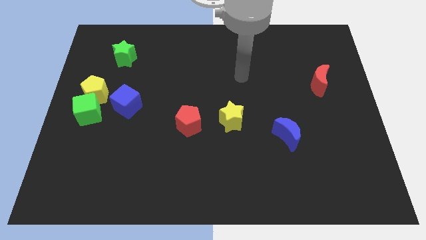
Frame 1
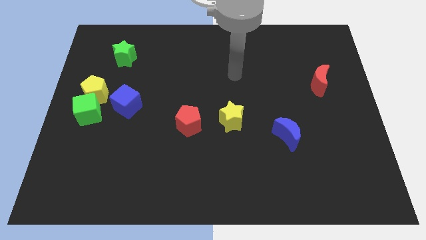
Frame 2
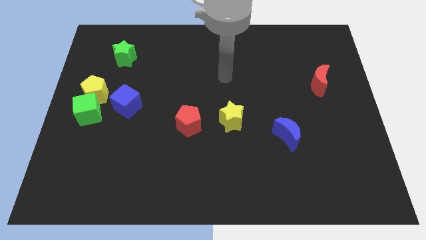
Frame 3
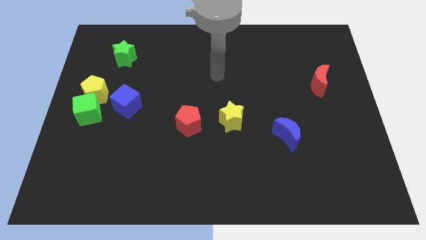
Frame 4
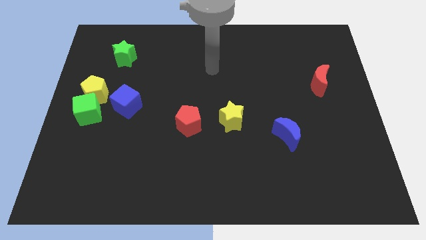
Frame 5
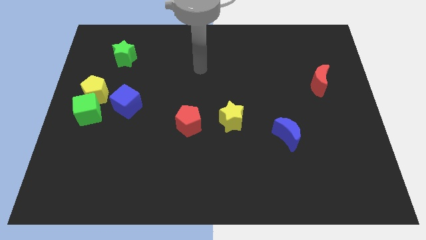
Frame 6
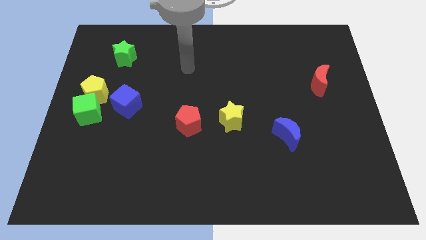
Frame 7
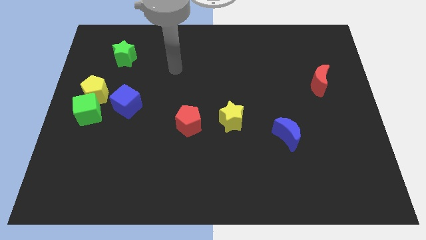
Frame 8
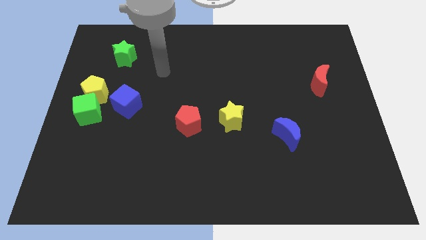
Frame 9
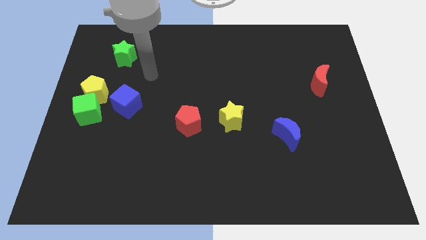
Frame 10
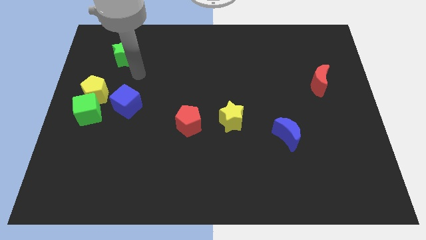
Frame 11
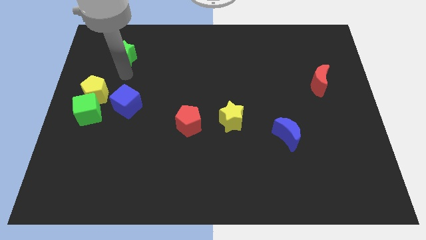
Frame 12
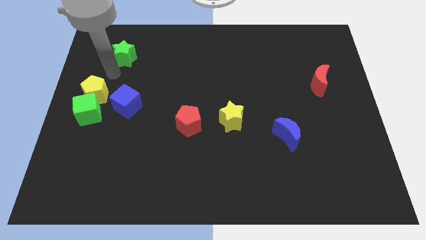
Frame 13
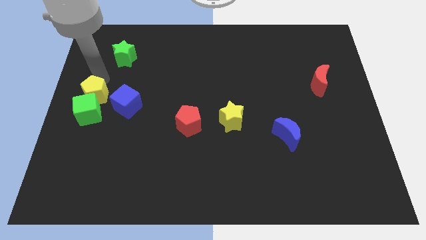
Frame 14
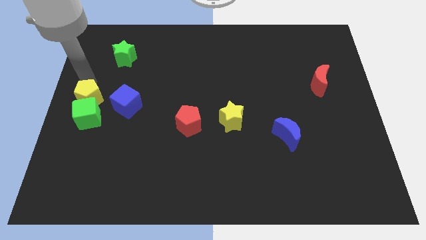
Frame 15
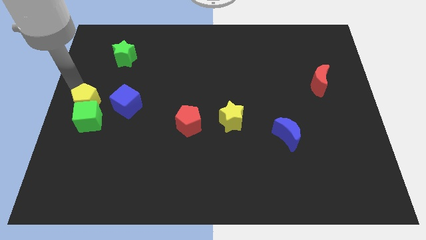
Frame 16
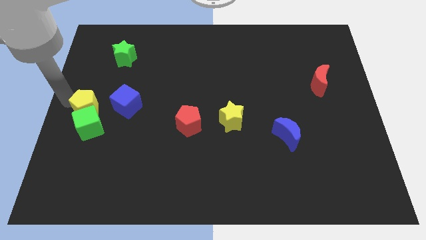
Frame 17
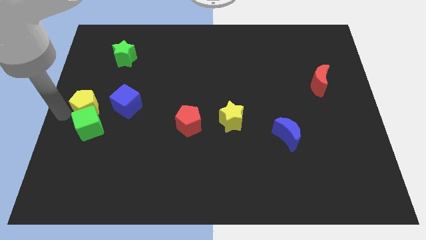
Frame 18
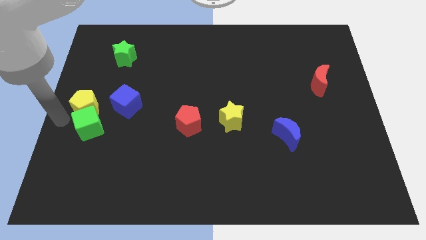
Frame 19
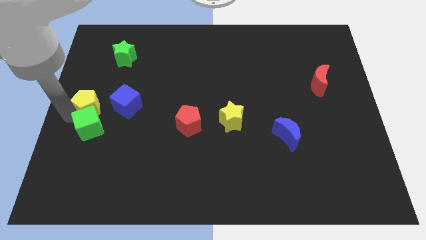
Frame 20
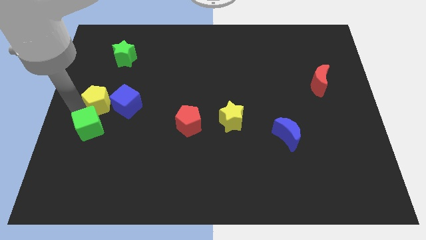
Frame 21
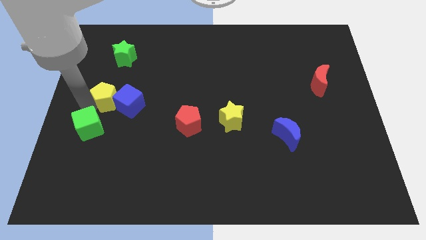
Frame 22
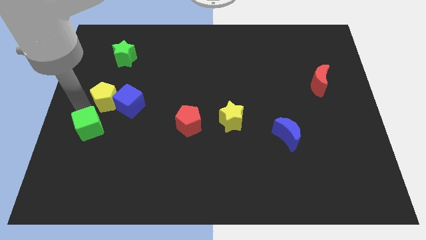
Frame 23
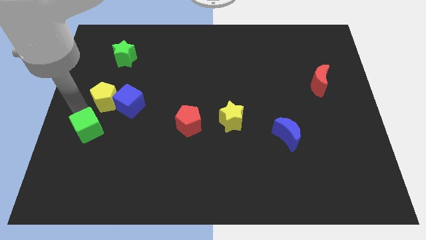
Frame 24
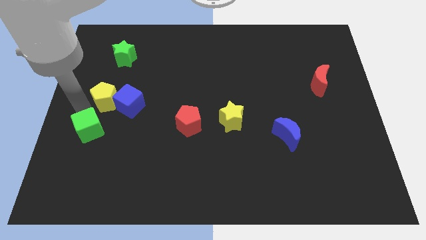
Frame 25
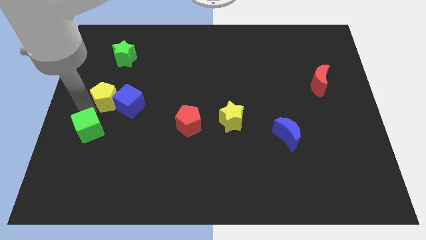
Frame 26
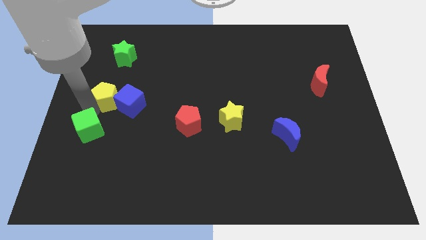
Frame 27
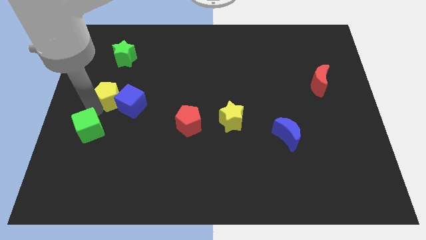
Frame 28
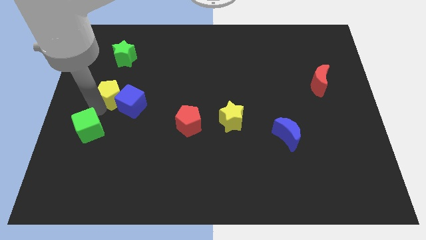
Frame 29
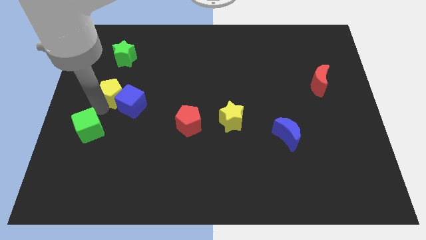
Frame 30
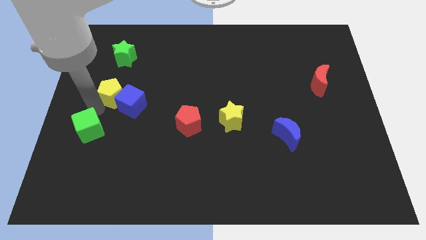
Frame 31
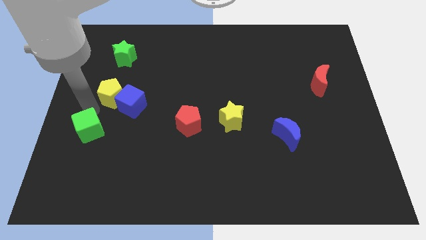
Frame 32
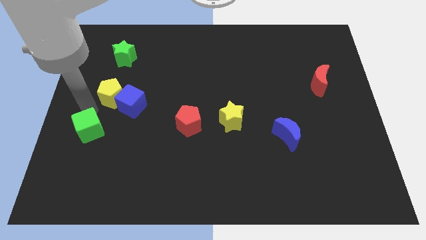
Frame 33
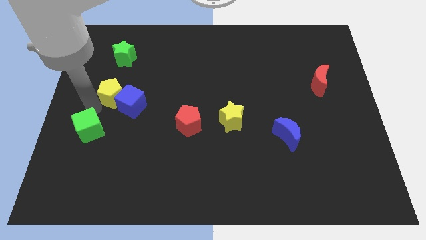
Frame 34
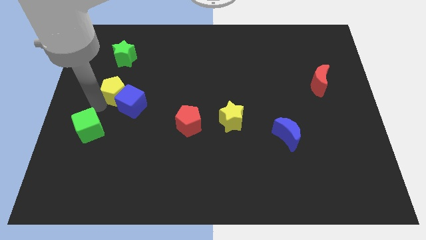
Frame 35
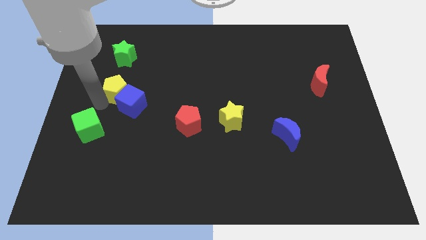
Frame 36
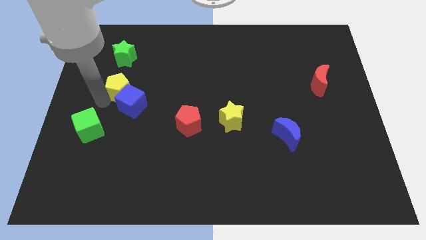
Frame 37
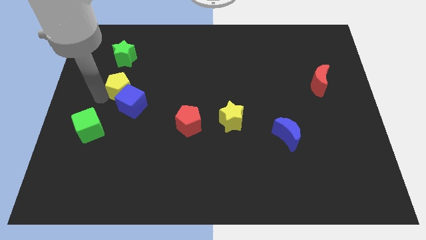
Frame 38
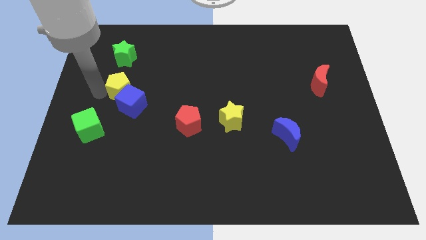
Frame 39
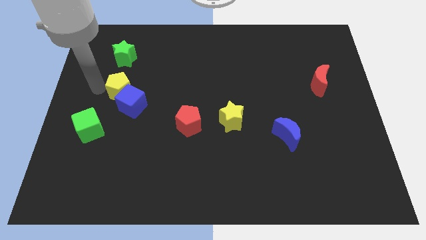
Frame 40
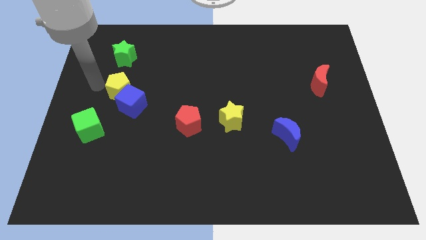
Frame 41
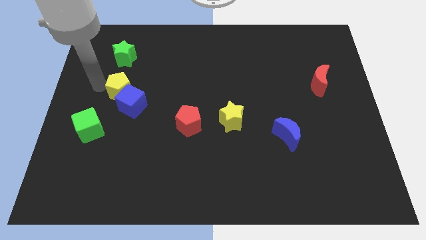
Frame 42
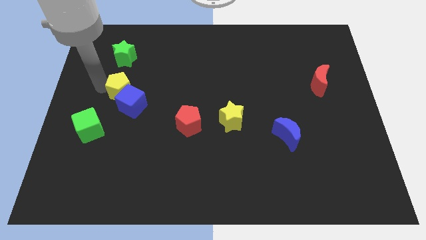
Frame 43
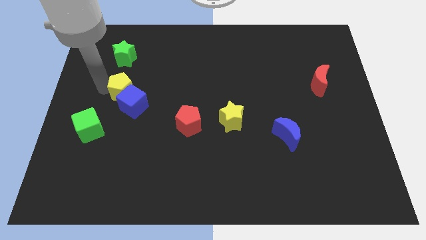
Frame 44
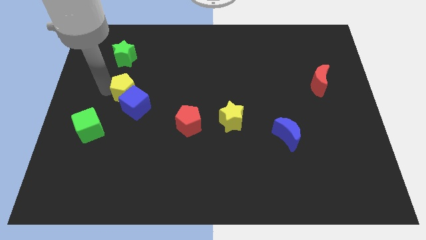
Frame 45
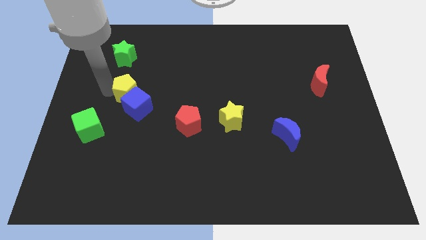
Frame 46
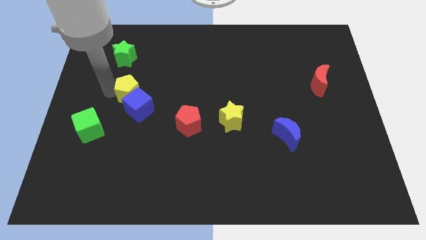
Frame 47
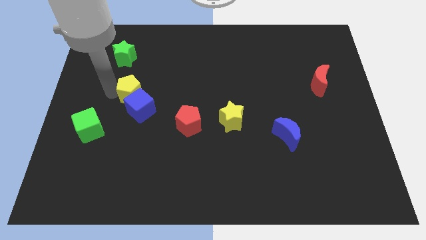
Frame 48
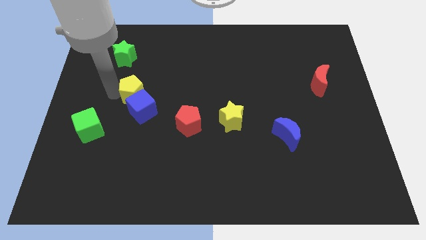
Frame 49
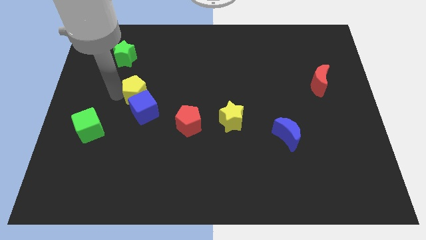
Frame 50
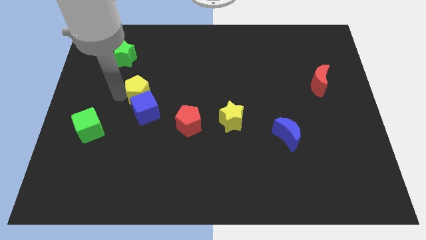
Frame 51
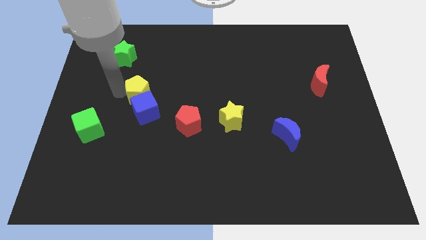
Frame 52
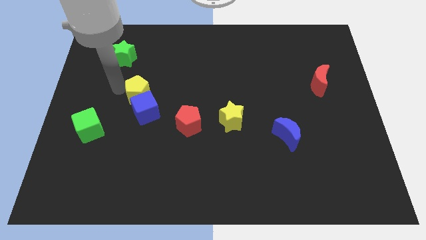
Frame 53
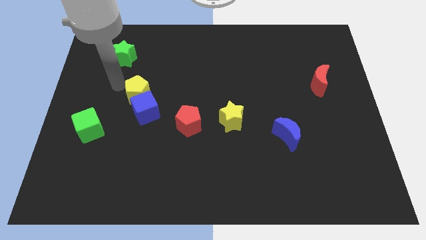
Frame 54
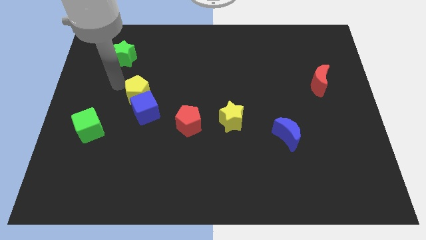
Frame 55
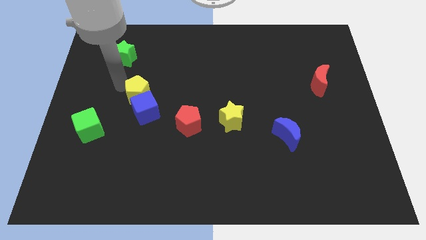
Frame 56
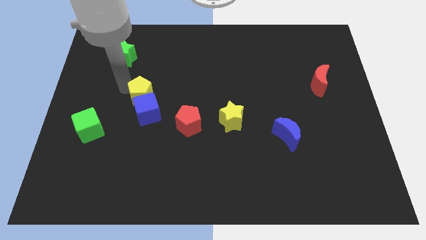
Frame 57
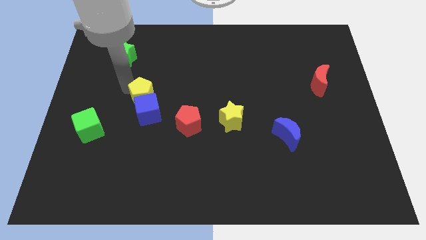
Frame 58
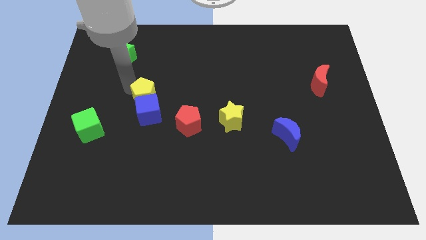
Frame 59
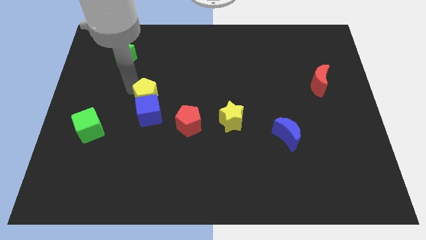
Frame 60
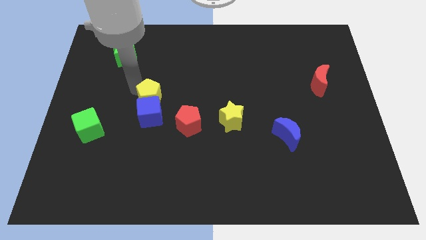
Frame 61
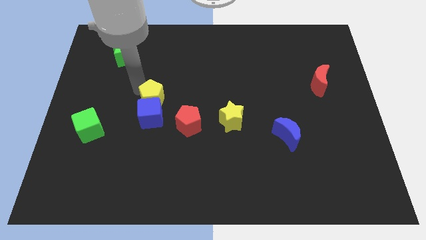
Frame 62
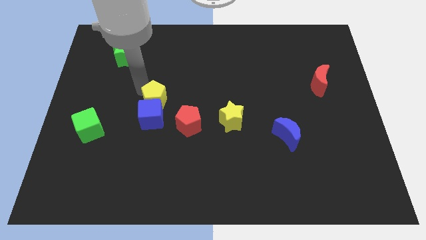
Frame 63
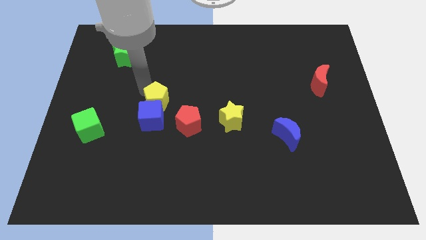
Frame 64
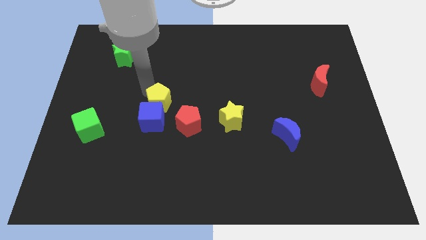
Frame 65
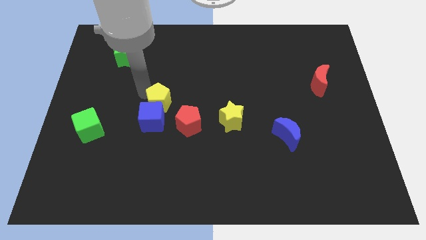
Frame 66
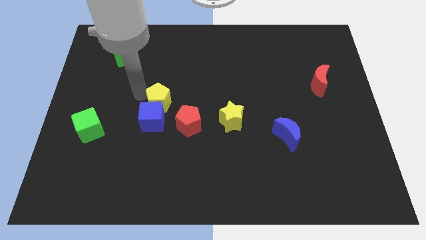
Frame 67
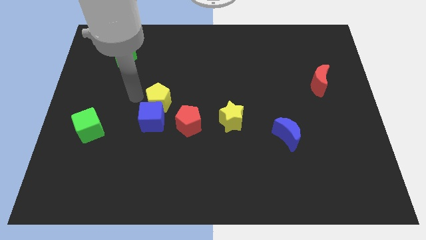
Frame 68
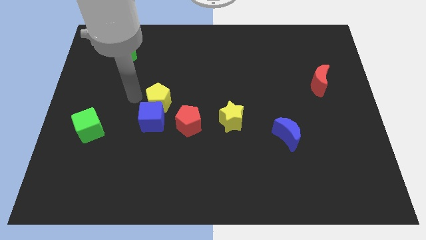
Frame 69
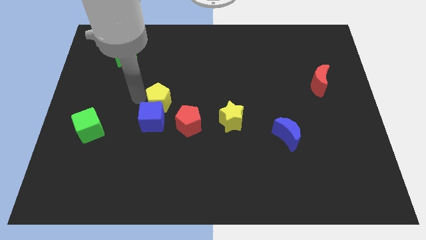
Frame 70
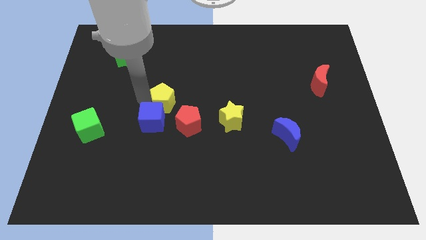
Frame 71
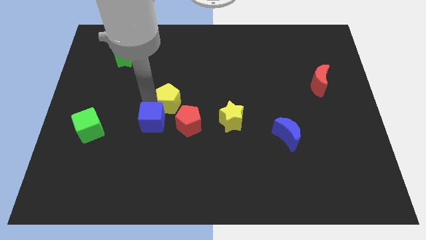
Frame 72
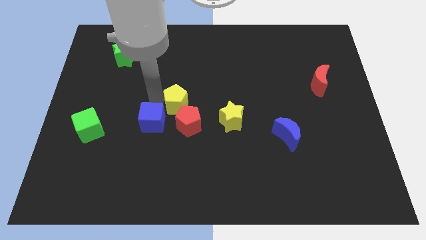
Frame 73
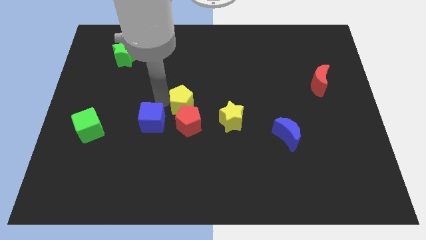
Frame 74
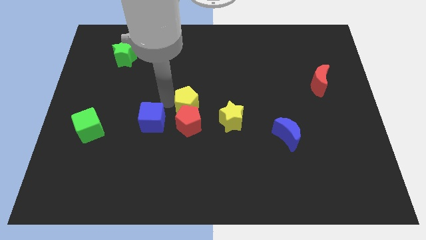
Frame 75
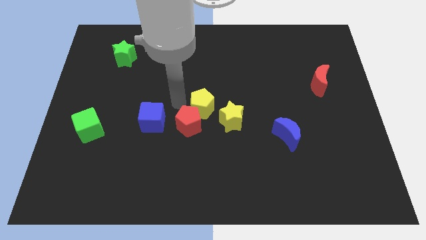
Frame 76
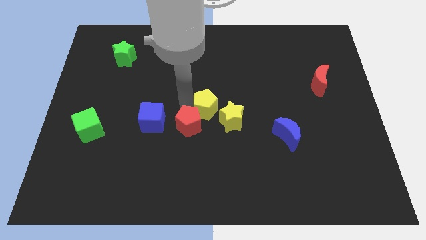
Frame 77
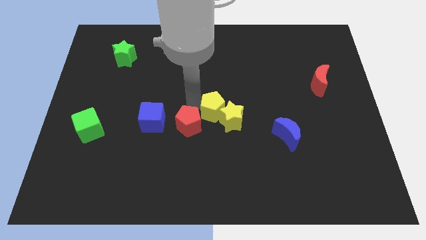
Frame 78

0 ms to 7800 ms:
put the yellow pentagon towards the yellow star
